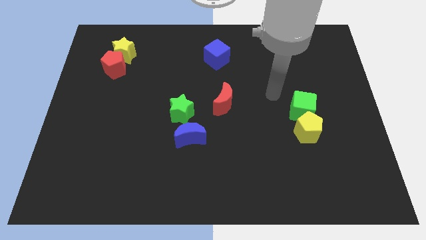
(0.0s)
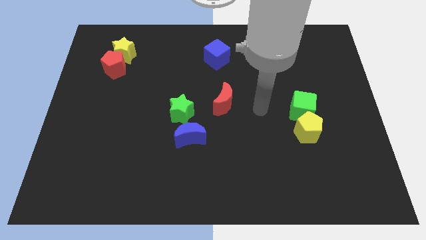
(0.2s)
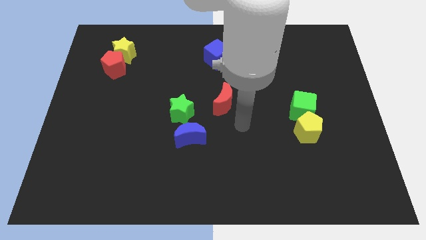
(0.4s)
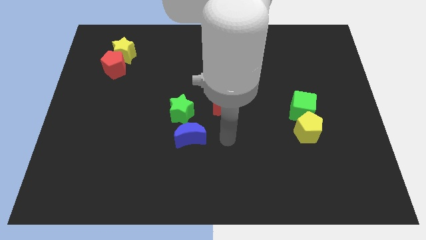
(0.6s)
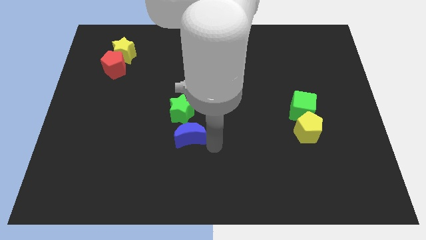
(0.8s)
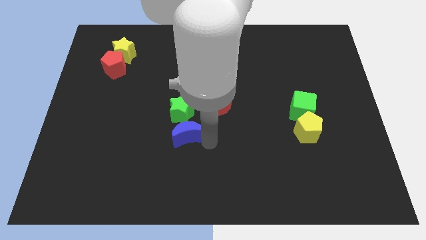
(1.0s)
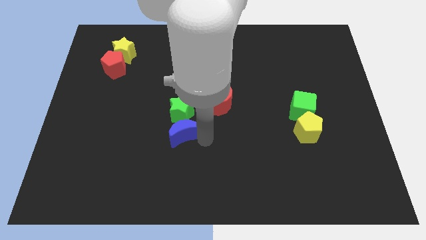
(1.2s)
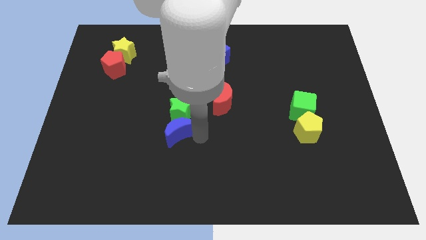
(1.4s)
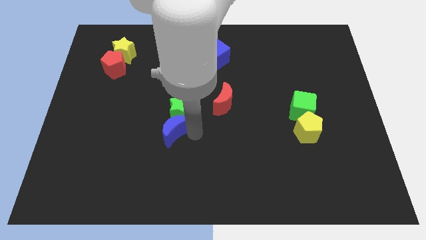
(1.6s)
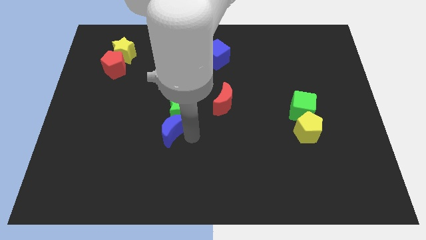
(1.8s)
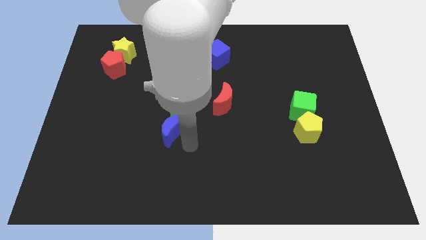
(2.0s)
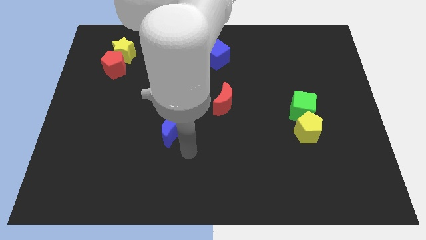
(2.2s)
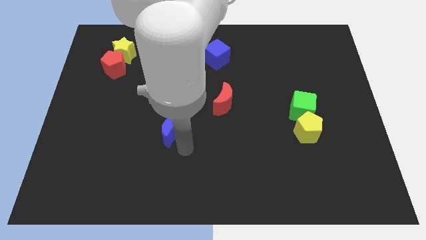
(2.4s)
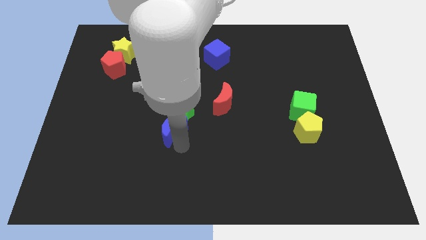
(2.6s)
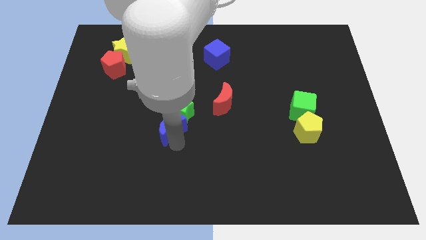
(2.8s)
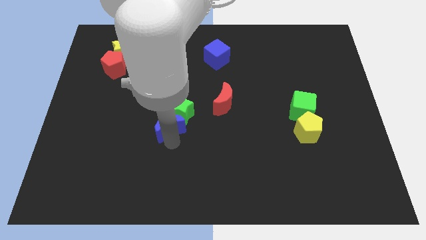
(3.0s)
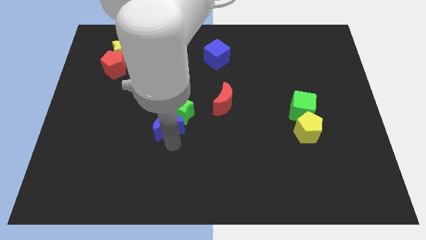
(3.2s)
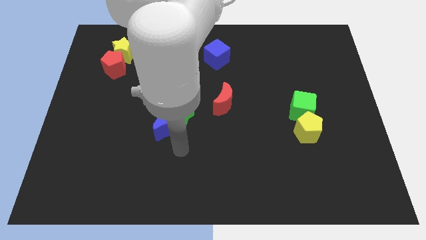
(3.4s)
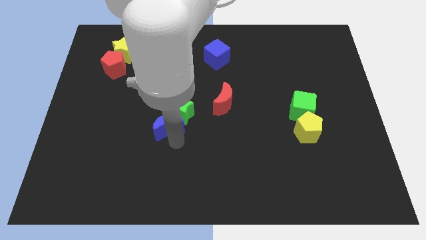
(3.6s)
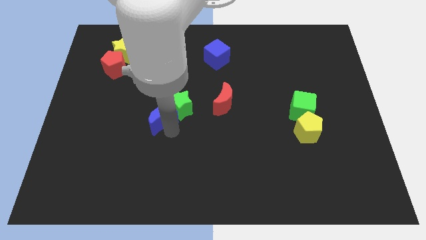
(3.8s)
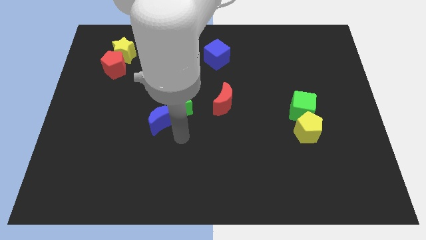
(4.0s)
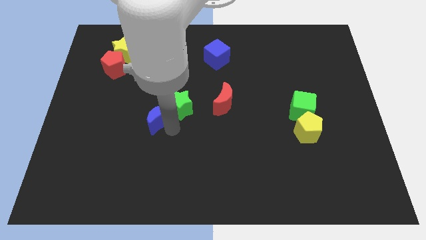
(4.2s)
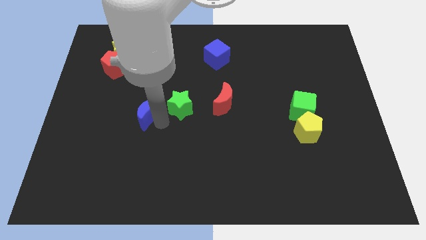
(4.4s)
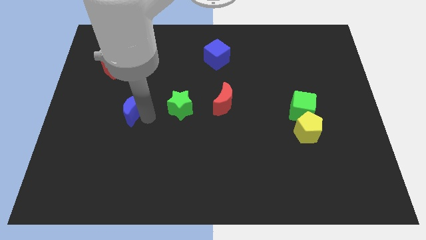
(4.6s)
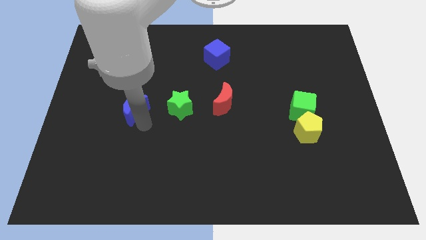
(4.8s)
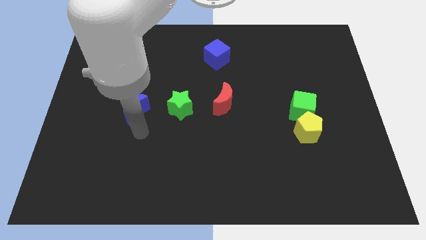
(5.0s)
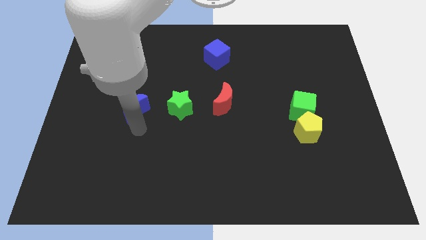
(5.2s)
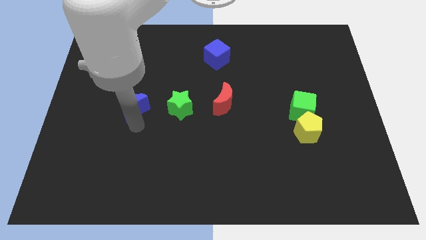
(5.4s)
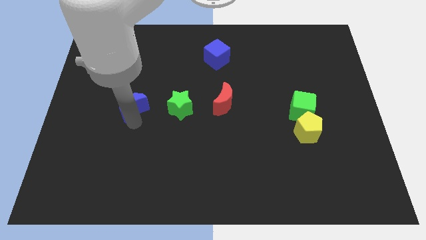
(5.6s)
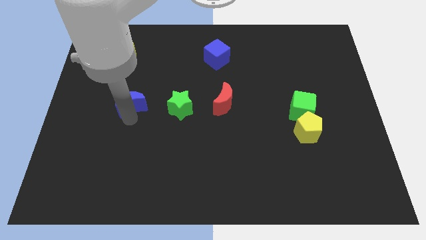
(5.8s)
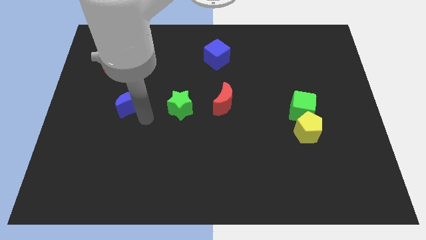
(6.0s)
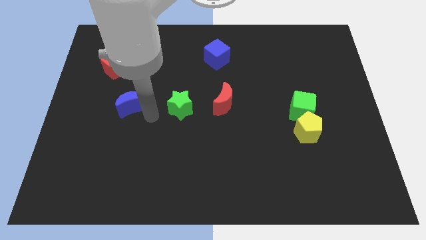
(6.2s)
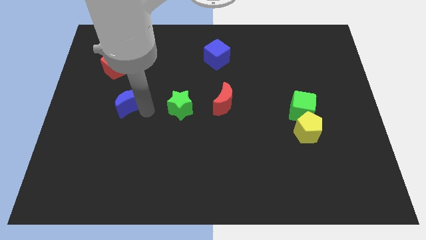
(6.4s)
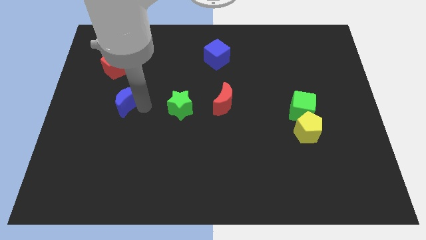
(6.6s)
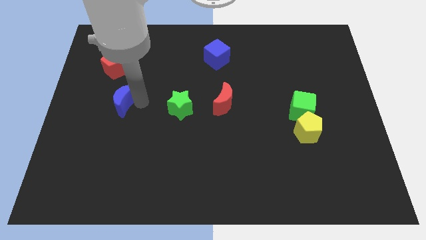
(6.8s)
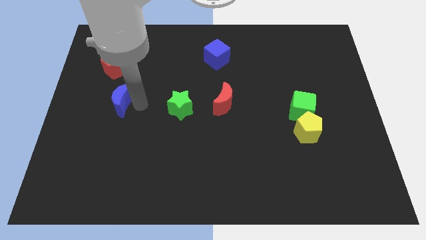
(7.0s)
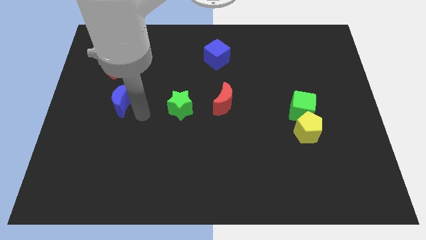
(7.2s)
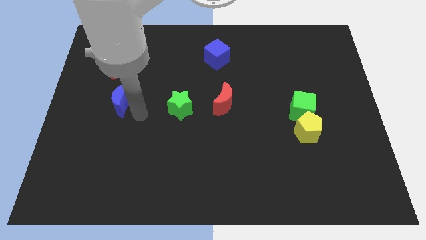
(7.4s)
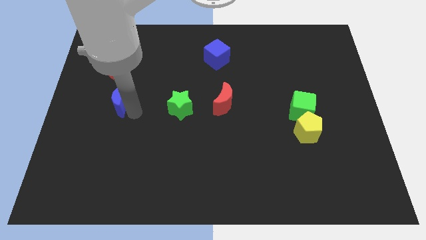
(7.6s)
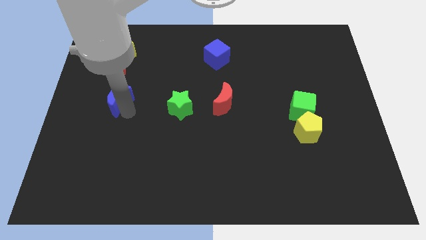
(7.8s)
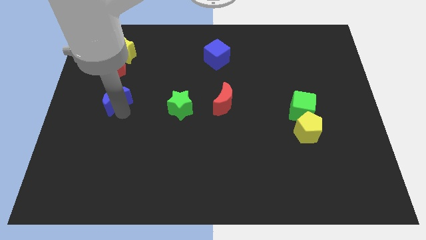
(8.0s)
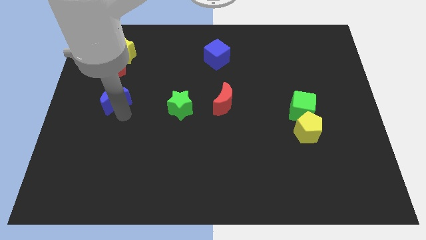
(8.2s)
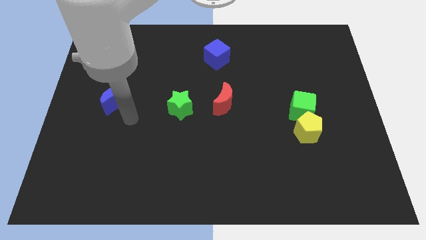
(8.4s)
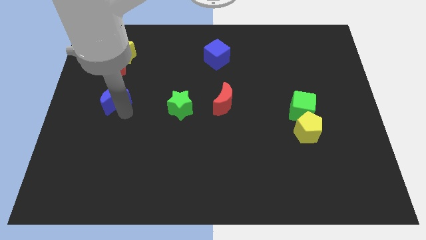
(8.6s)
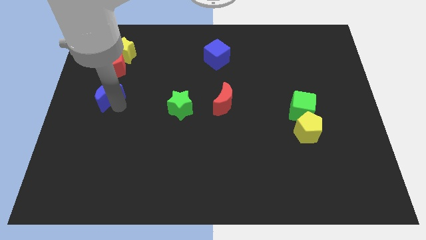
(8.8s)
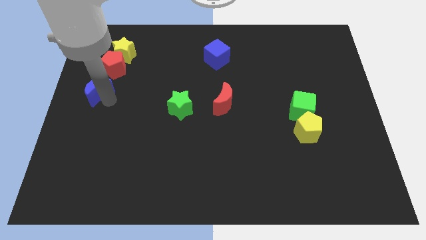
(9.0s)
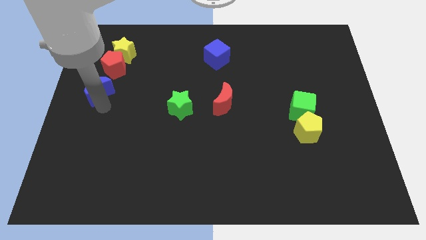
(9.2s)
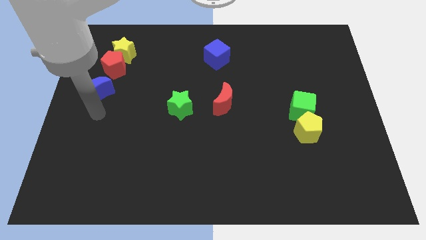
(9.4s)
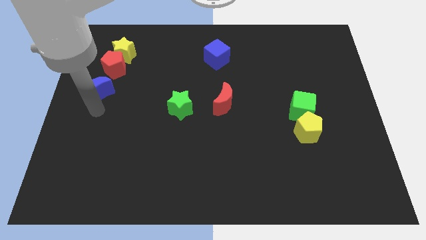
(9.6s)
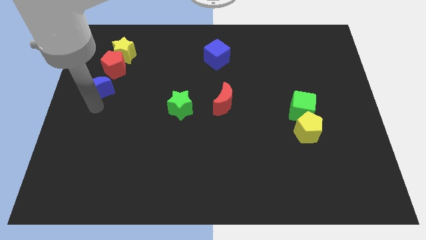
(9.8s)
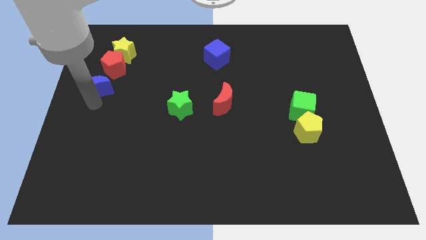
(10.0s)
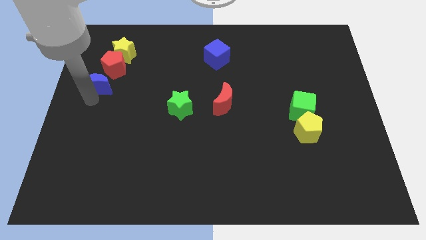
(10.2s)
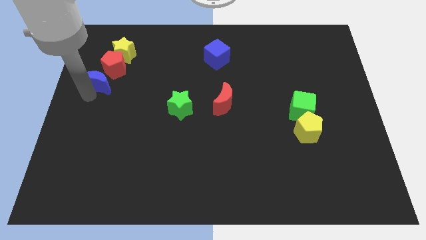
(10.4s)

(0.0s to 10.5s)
put the blue moon diagonally down and to the left of the yellow star

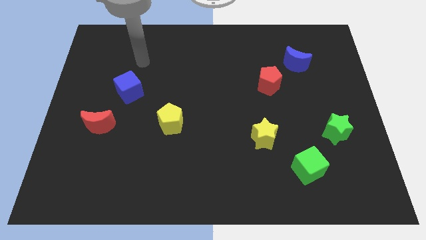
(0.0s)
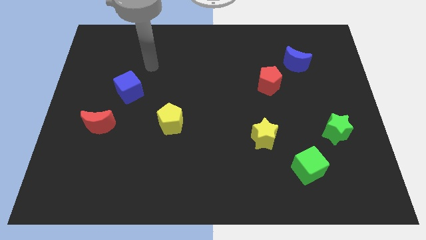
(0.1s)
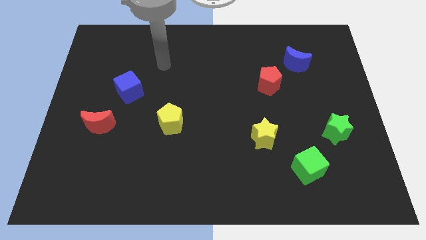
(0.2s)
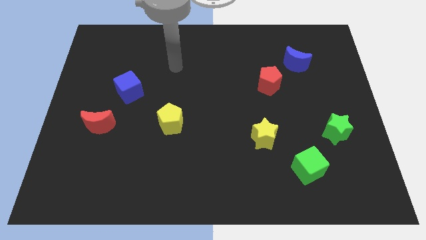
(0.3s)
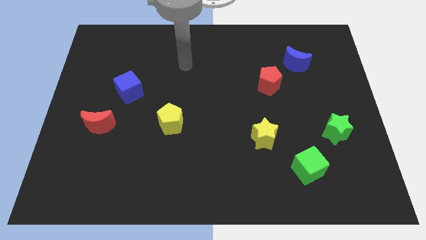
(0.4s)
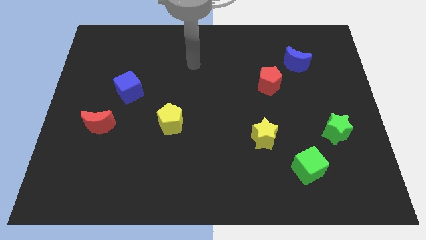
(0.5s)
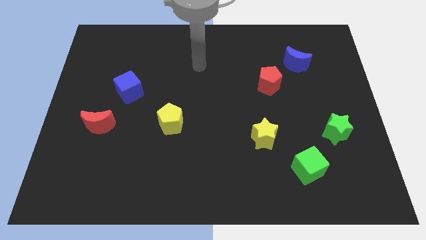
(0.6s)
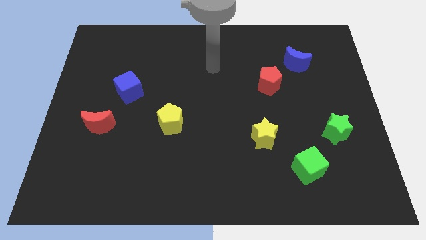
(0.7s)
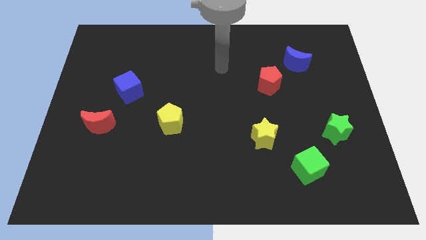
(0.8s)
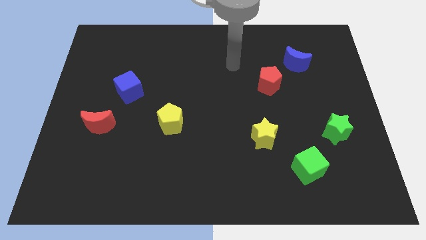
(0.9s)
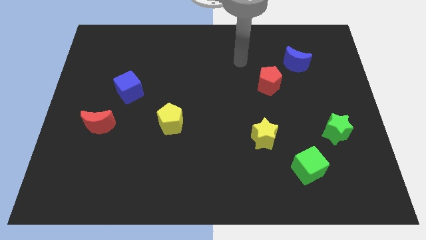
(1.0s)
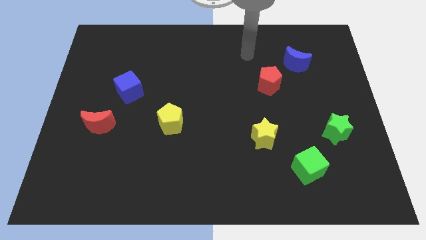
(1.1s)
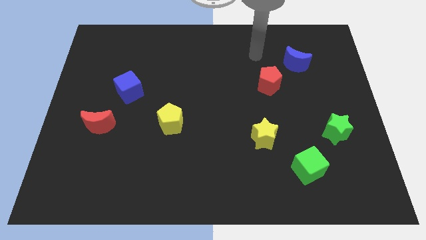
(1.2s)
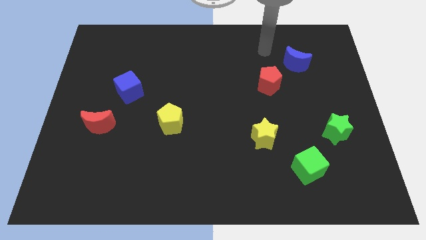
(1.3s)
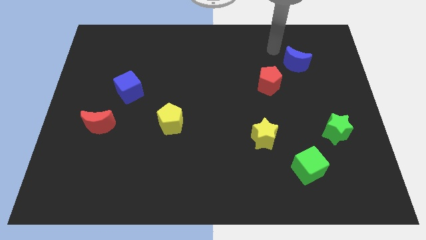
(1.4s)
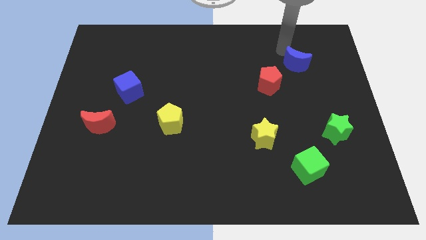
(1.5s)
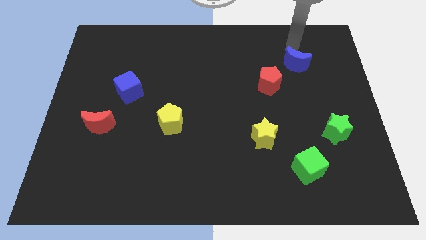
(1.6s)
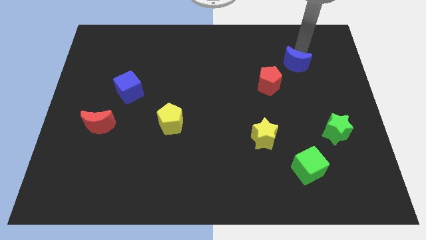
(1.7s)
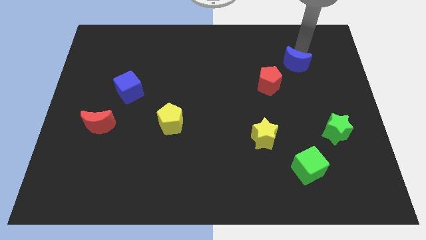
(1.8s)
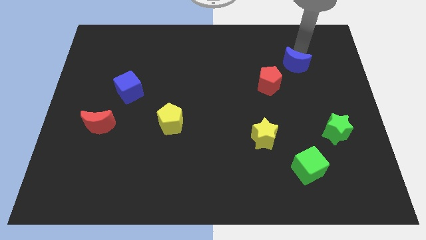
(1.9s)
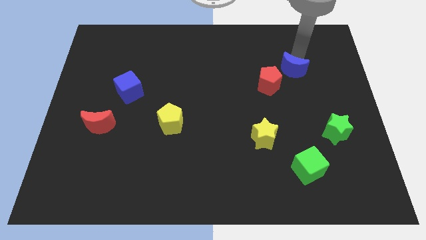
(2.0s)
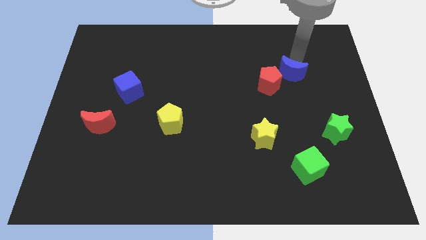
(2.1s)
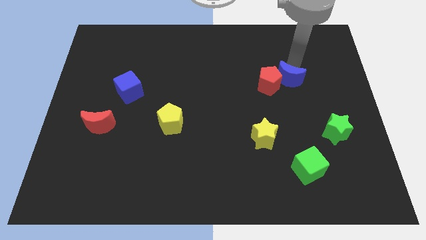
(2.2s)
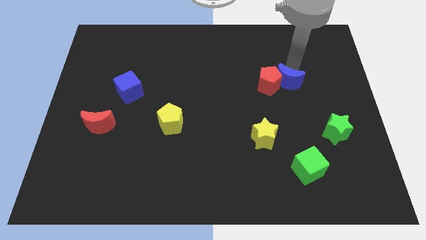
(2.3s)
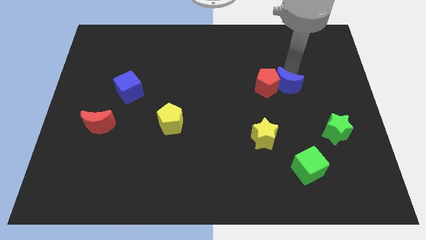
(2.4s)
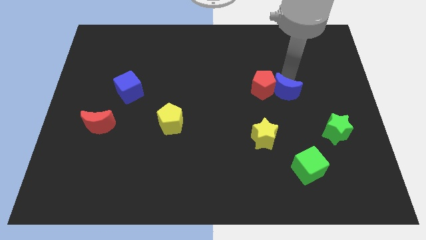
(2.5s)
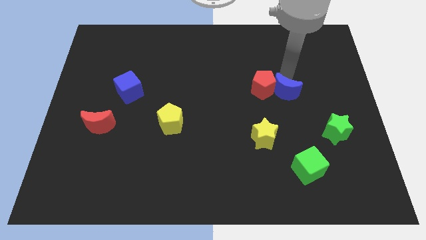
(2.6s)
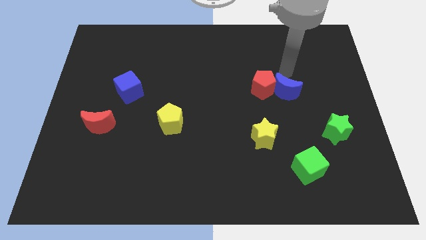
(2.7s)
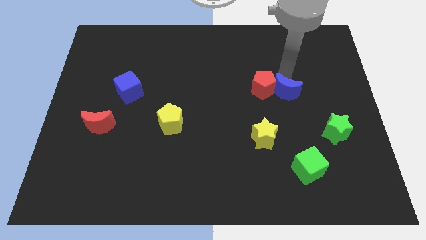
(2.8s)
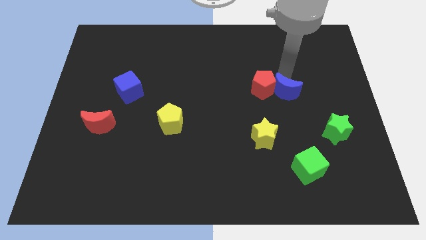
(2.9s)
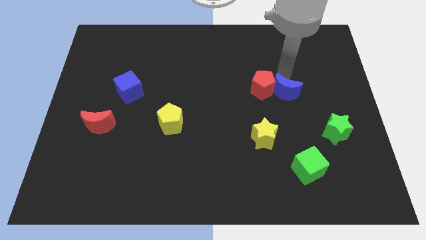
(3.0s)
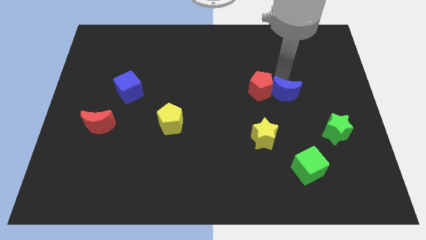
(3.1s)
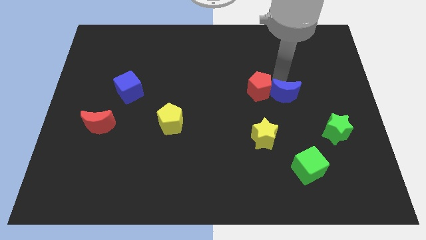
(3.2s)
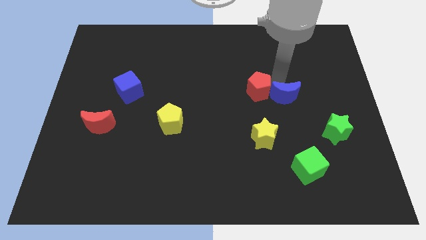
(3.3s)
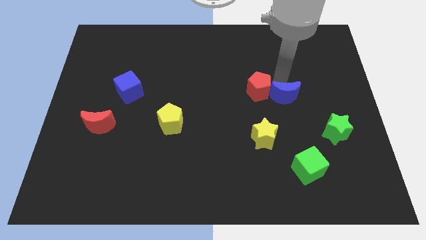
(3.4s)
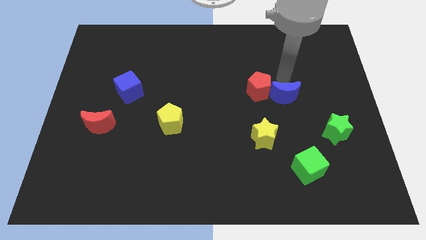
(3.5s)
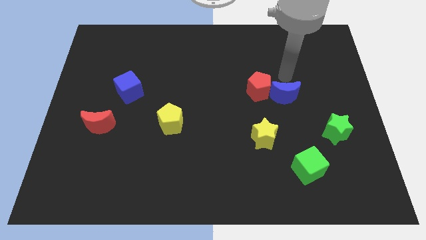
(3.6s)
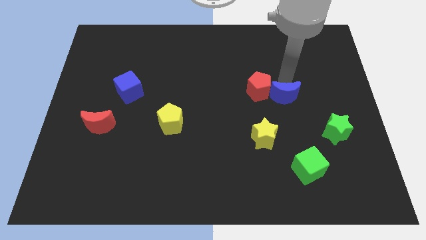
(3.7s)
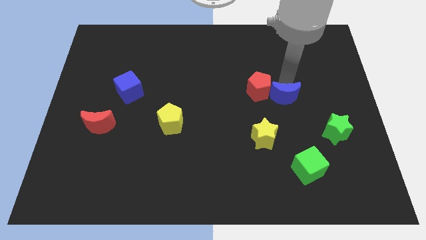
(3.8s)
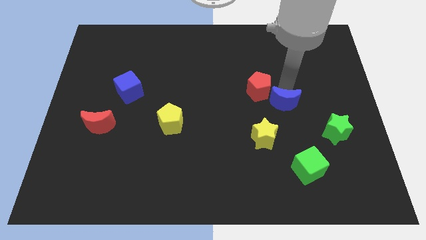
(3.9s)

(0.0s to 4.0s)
move the blue moon diagonally up and to the right of the yellow star
